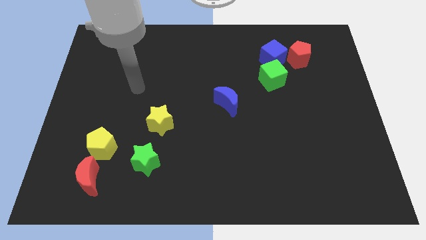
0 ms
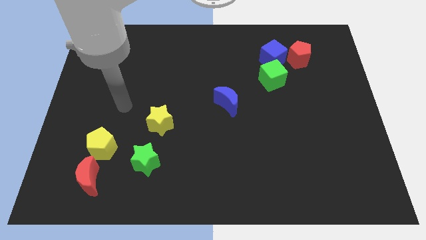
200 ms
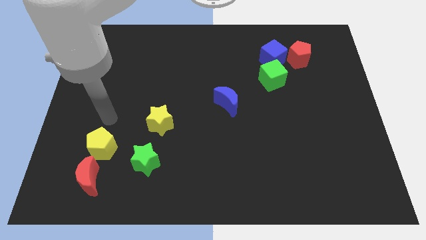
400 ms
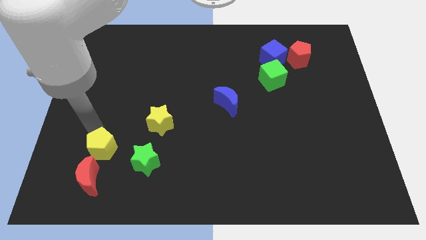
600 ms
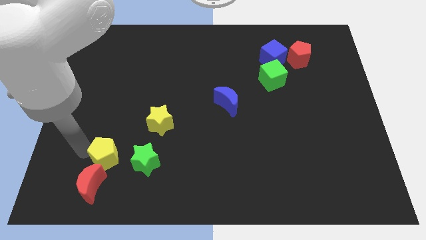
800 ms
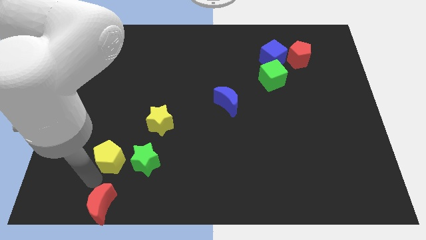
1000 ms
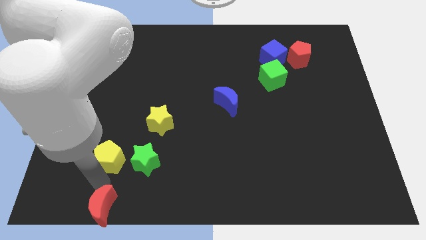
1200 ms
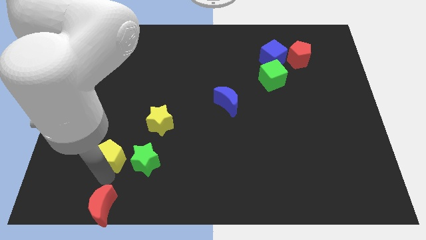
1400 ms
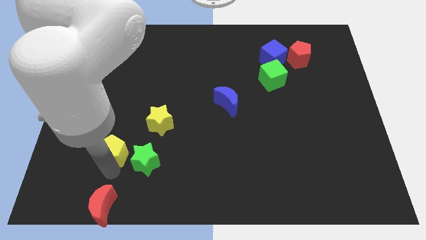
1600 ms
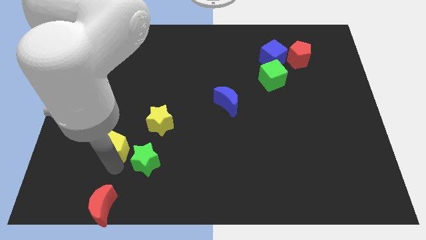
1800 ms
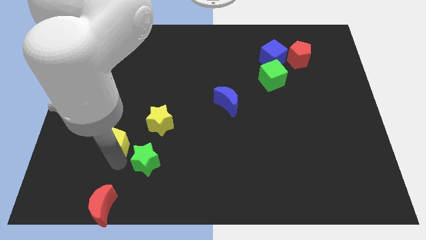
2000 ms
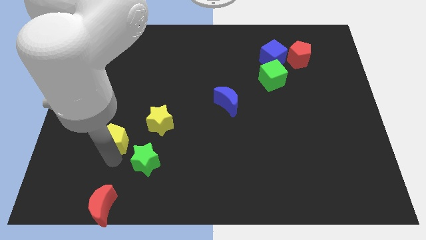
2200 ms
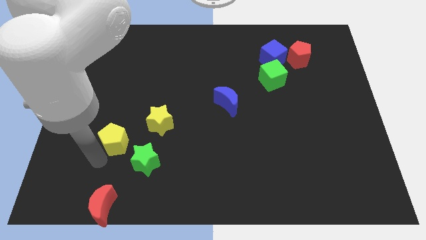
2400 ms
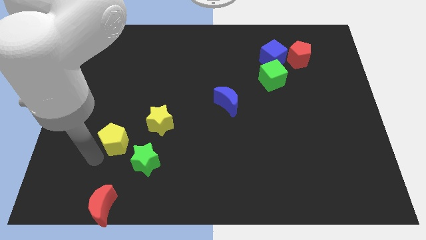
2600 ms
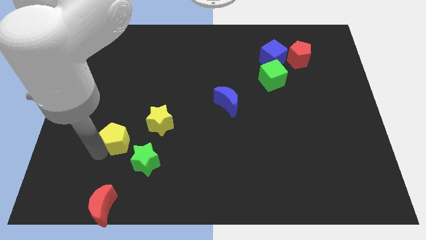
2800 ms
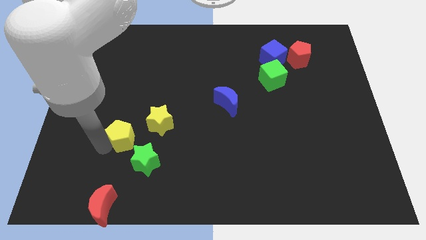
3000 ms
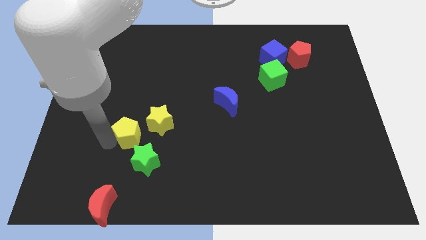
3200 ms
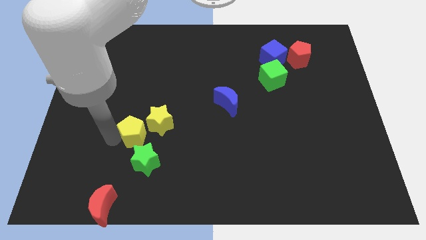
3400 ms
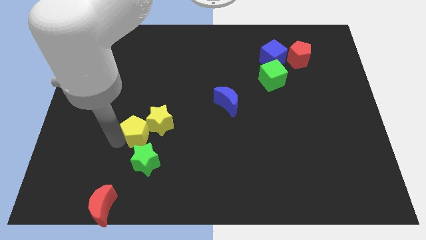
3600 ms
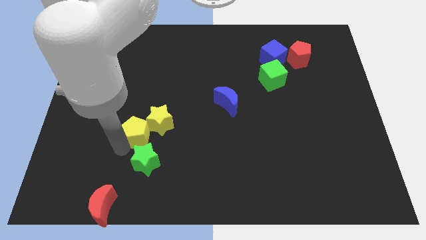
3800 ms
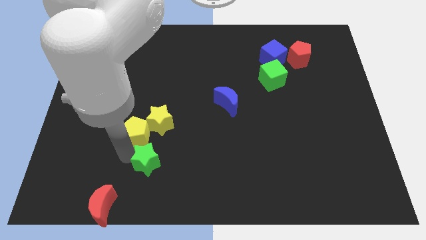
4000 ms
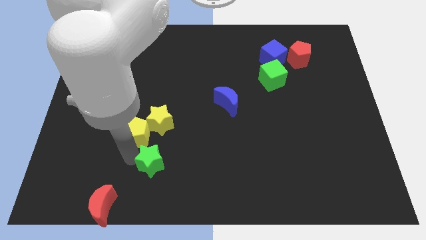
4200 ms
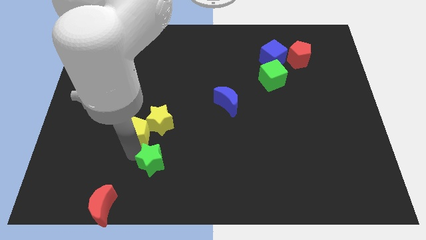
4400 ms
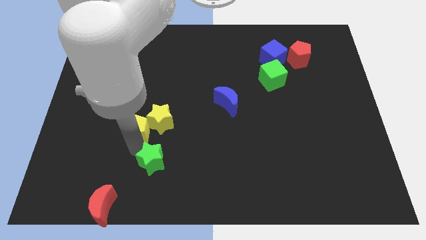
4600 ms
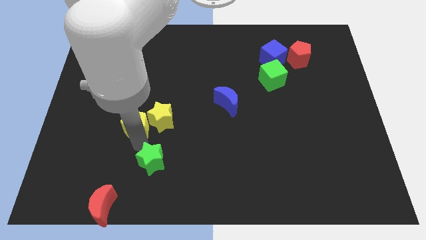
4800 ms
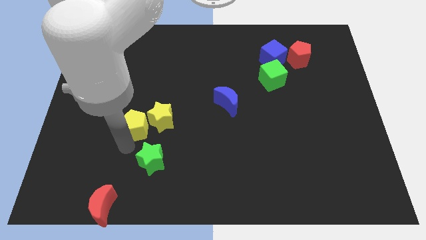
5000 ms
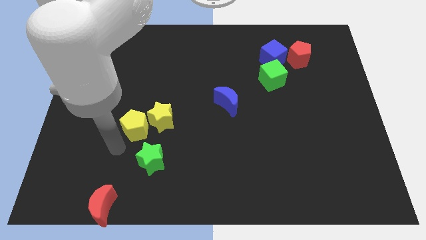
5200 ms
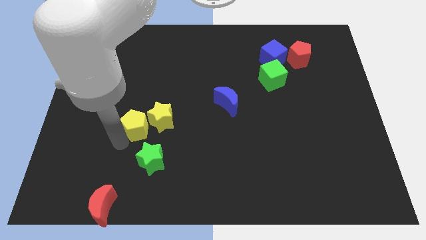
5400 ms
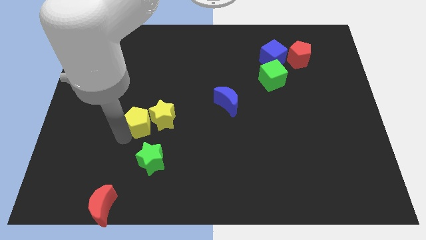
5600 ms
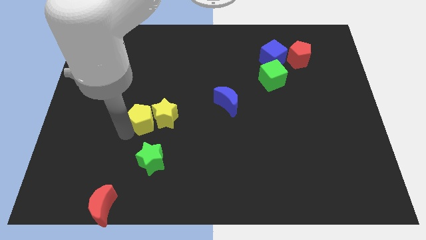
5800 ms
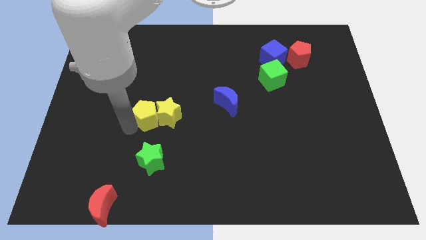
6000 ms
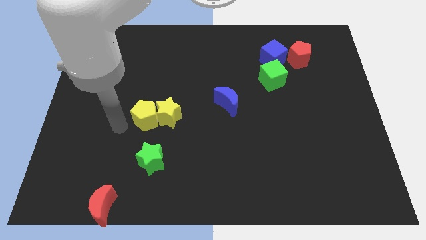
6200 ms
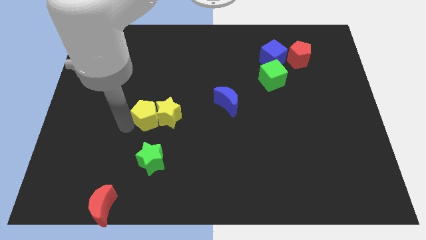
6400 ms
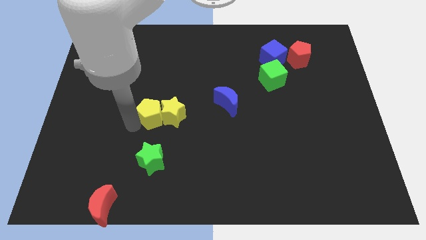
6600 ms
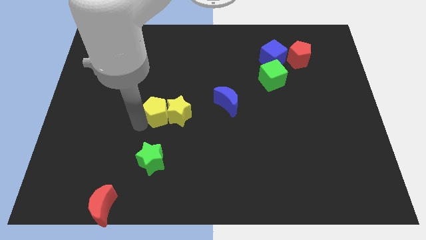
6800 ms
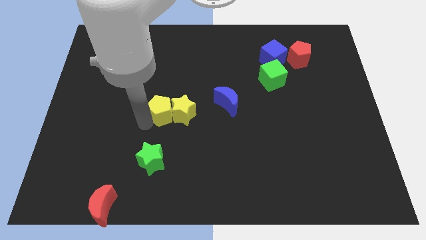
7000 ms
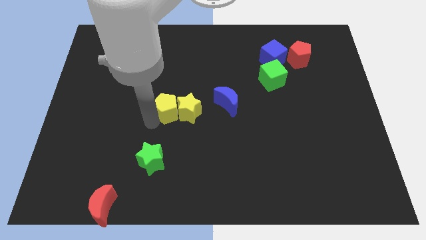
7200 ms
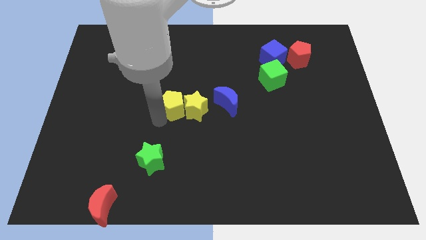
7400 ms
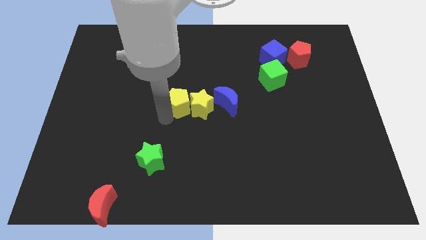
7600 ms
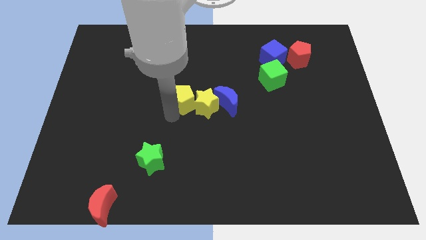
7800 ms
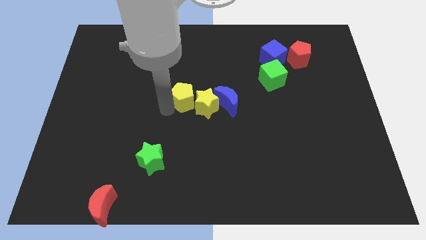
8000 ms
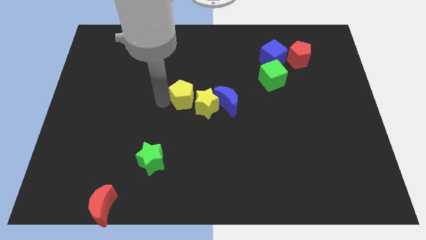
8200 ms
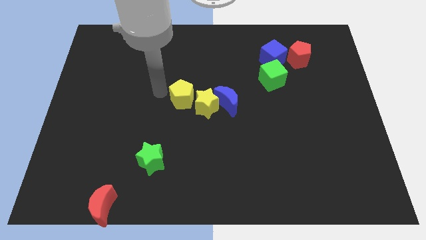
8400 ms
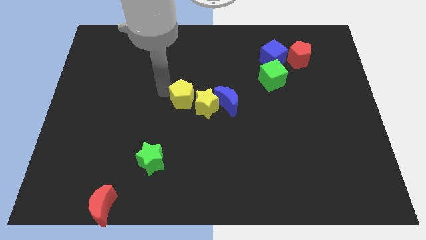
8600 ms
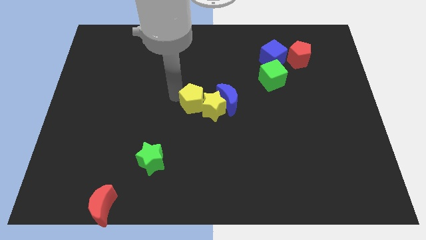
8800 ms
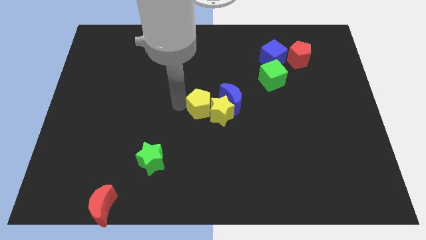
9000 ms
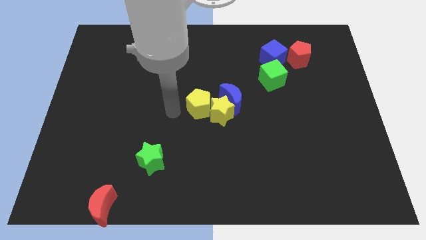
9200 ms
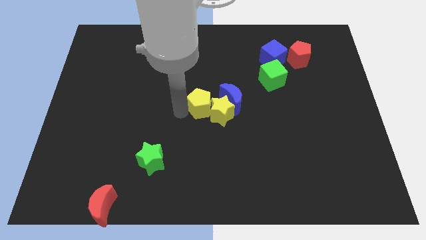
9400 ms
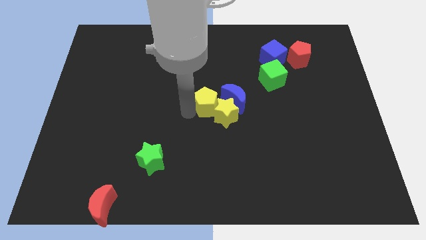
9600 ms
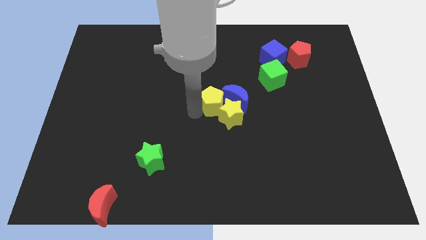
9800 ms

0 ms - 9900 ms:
push the yellow pentagon next to the blue moon

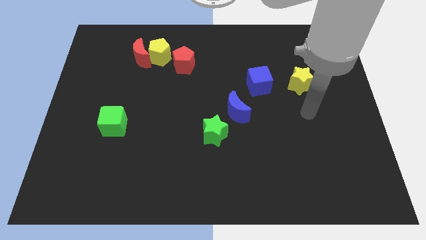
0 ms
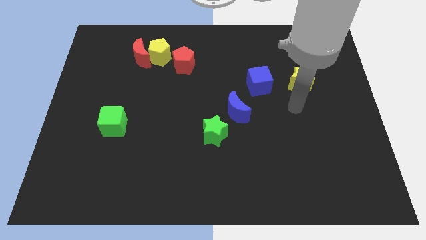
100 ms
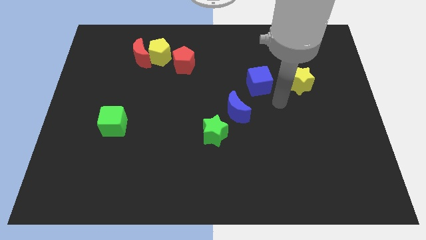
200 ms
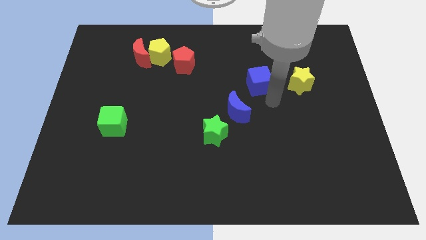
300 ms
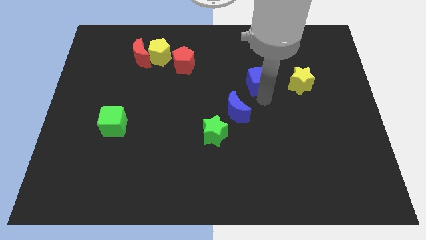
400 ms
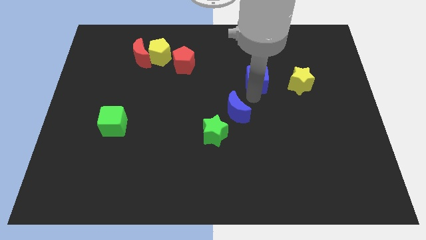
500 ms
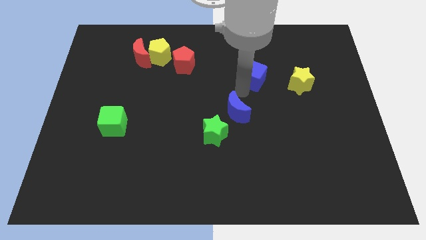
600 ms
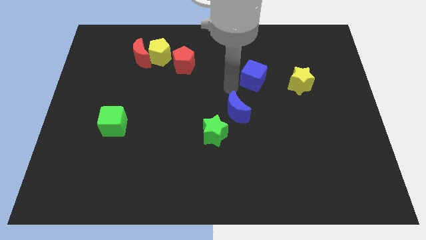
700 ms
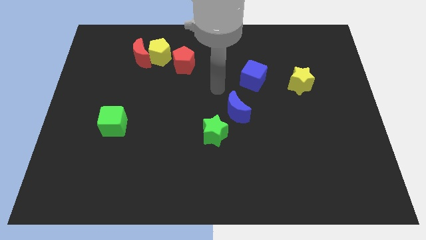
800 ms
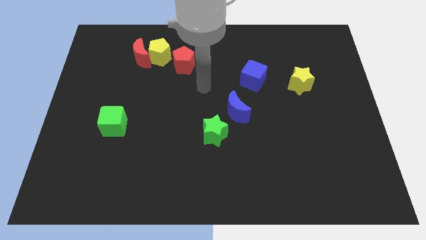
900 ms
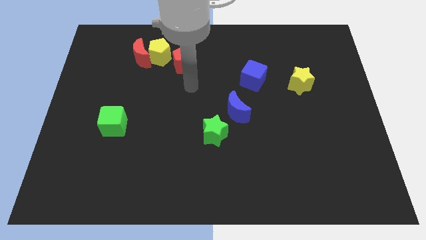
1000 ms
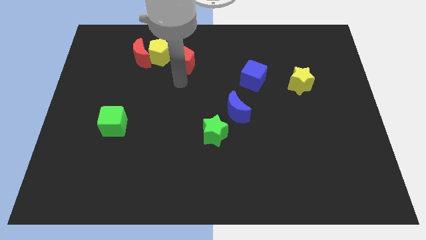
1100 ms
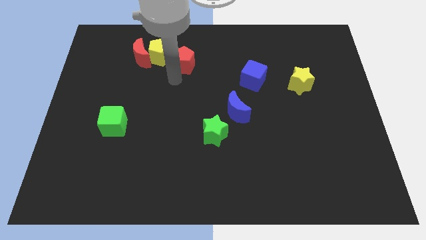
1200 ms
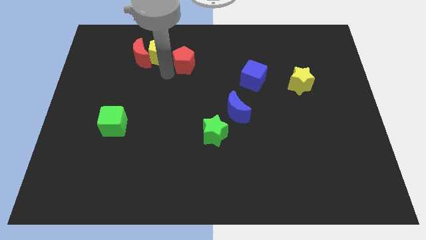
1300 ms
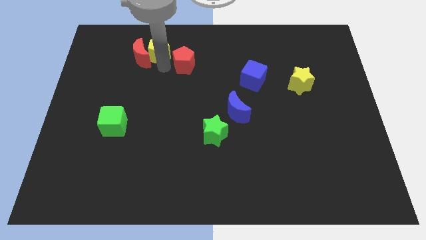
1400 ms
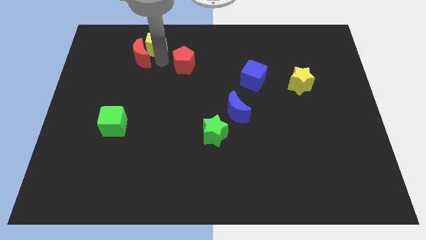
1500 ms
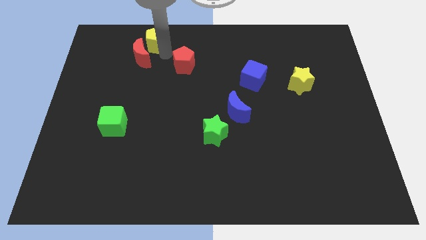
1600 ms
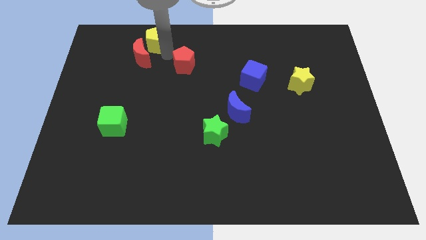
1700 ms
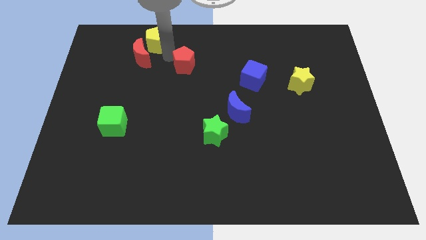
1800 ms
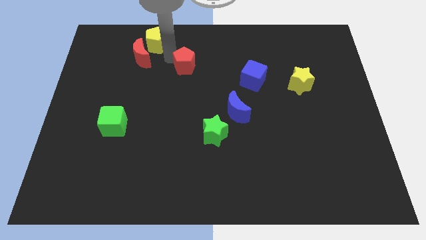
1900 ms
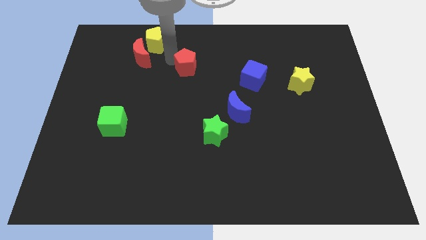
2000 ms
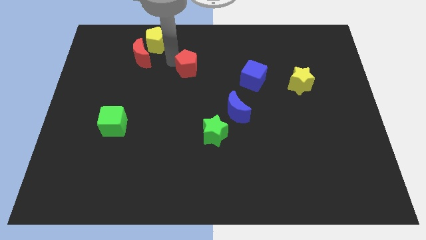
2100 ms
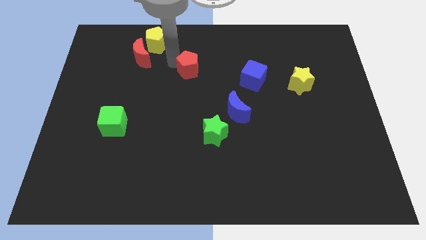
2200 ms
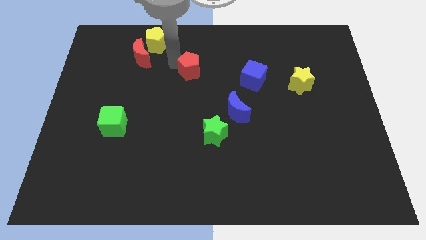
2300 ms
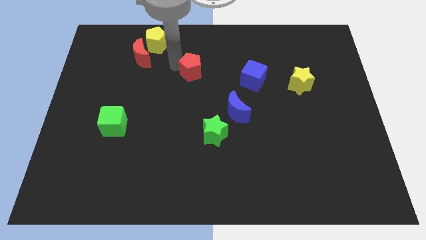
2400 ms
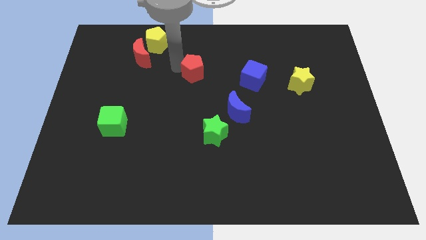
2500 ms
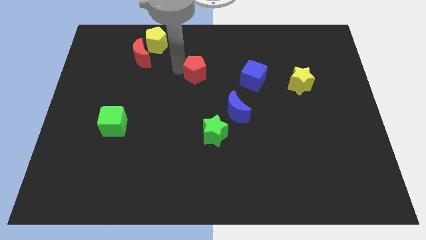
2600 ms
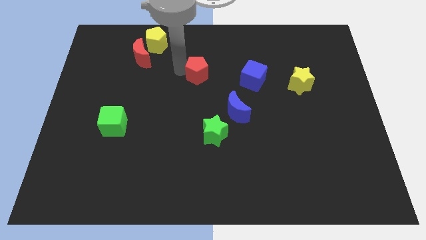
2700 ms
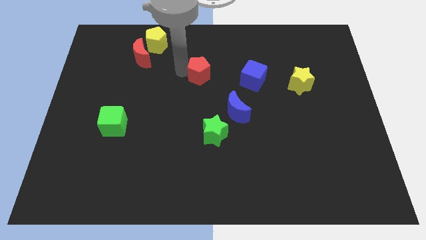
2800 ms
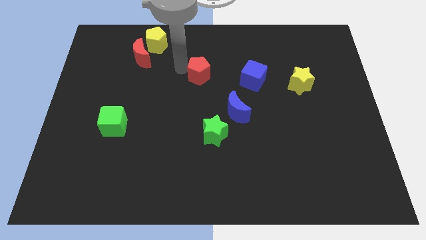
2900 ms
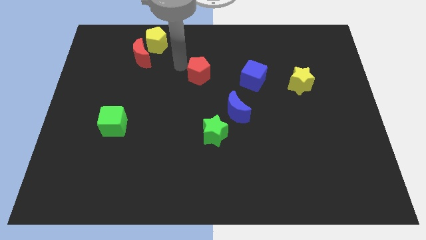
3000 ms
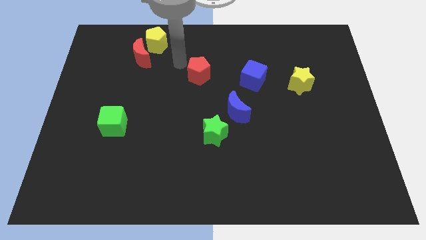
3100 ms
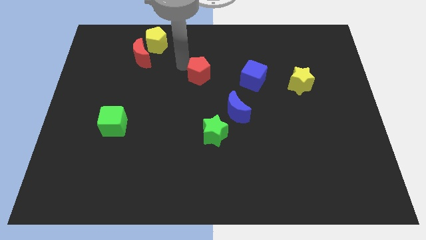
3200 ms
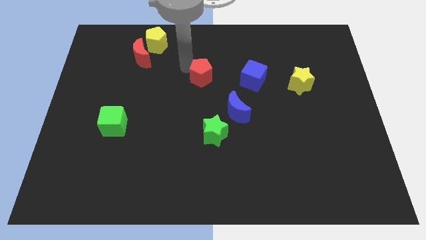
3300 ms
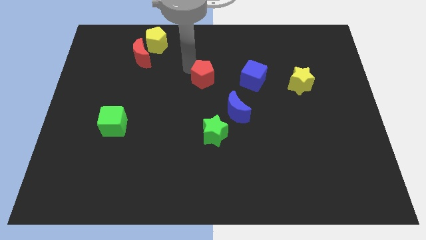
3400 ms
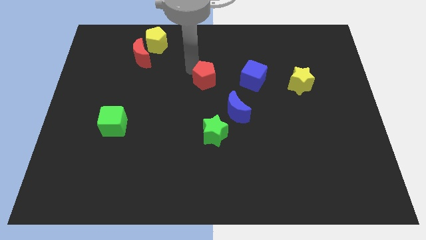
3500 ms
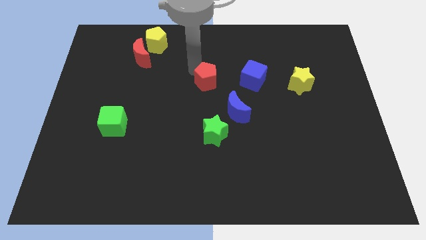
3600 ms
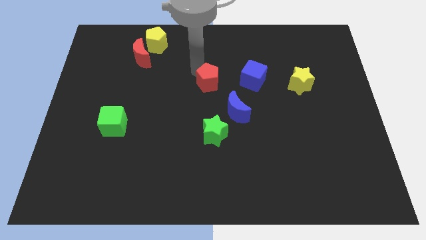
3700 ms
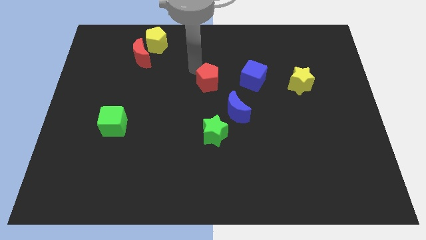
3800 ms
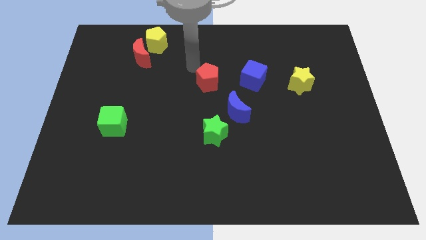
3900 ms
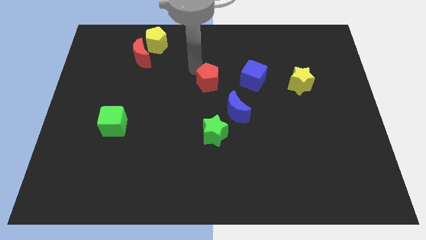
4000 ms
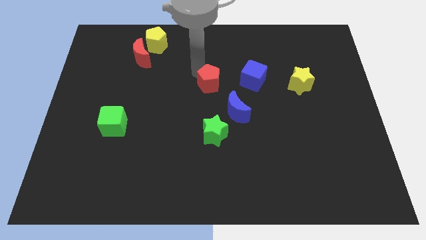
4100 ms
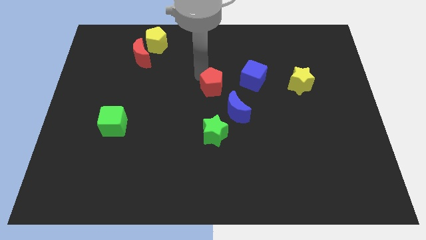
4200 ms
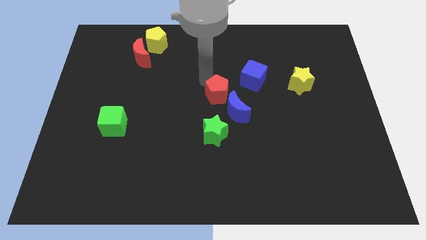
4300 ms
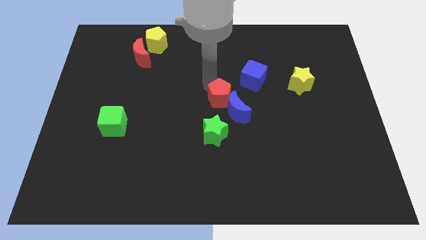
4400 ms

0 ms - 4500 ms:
put the red pentagon towards the blue moon
